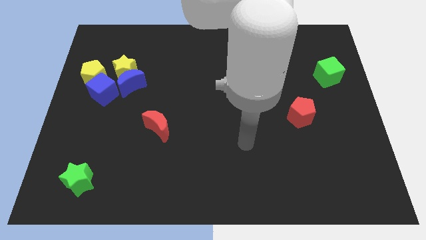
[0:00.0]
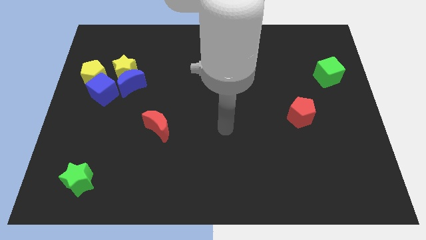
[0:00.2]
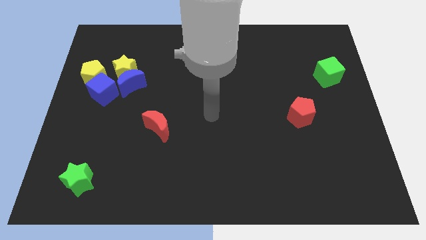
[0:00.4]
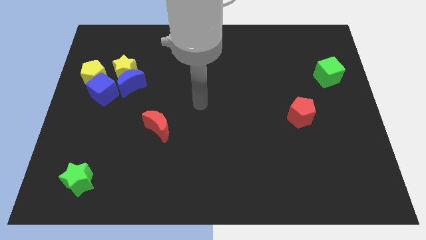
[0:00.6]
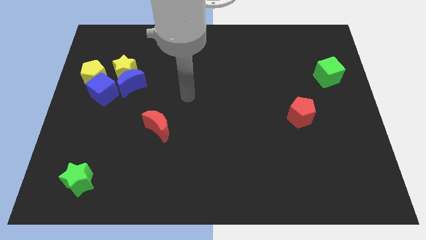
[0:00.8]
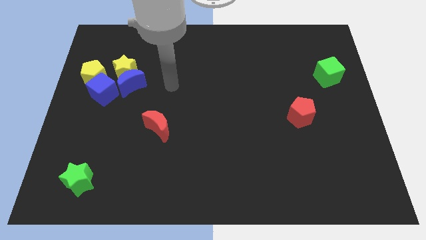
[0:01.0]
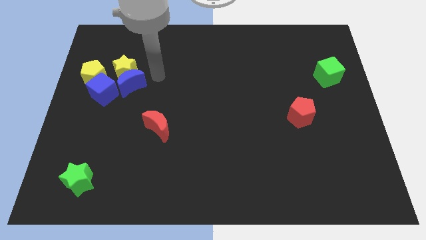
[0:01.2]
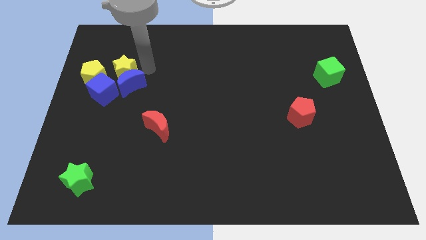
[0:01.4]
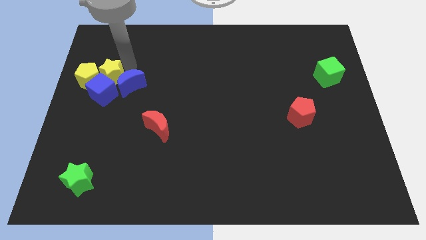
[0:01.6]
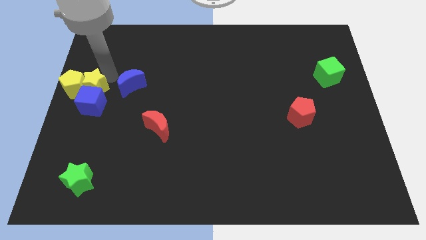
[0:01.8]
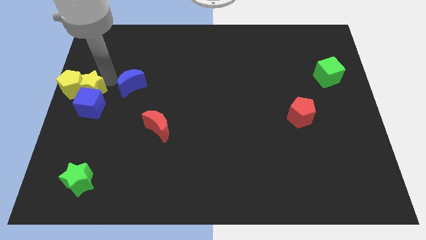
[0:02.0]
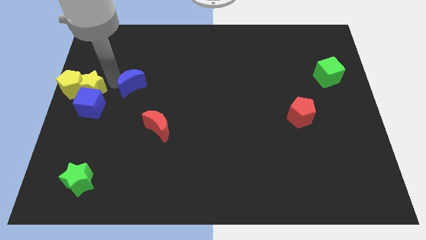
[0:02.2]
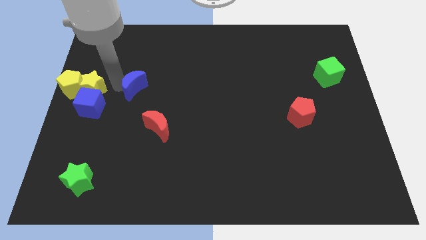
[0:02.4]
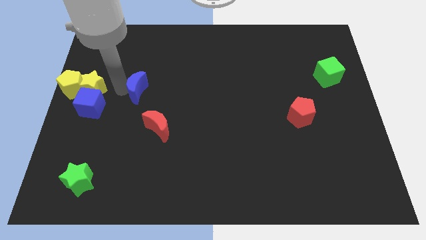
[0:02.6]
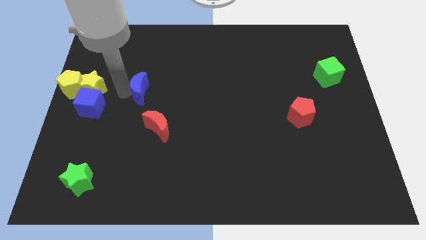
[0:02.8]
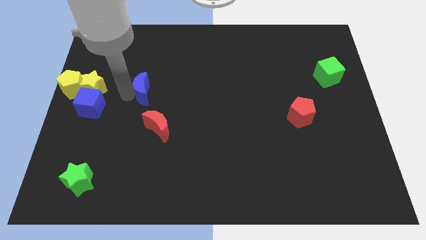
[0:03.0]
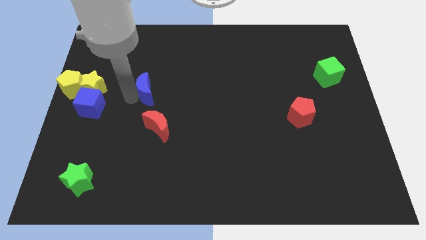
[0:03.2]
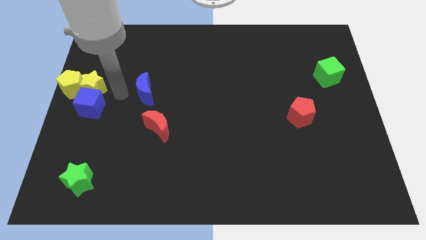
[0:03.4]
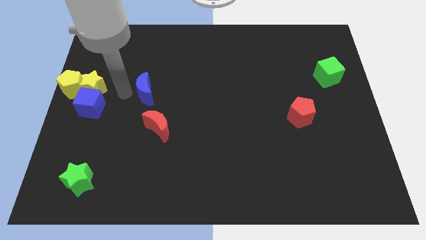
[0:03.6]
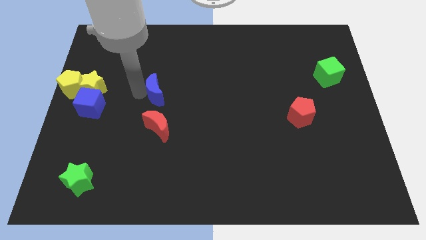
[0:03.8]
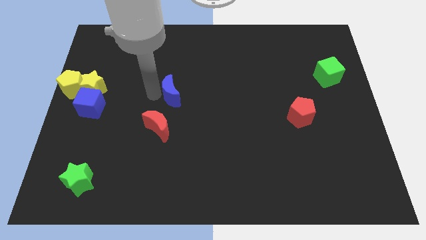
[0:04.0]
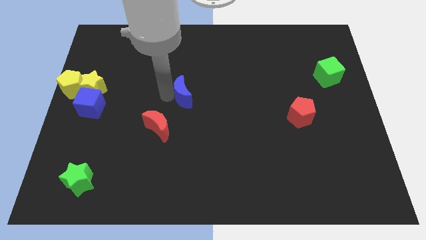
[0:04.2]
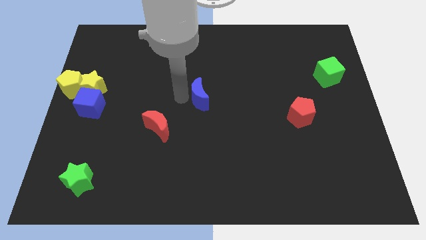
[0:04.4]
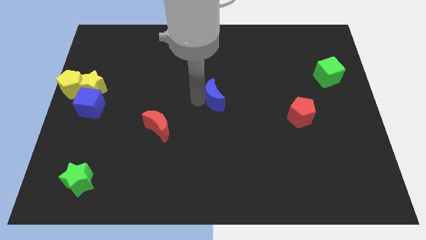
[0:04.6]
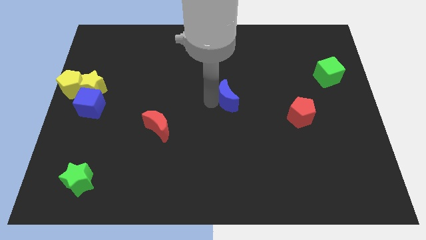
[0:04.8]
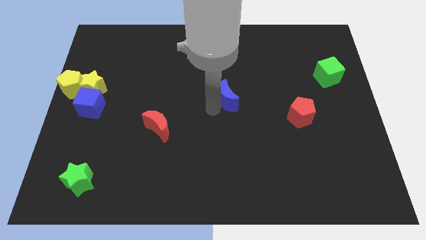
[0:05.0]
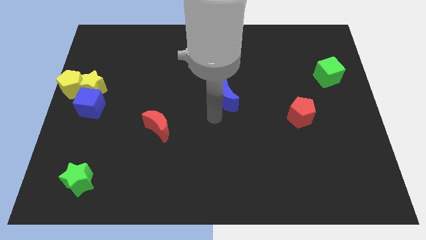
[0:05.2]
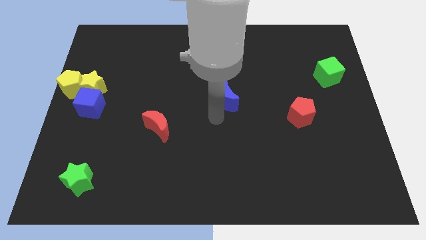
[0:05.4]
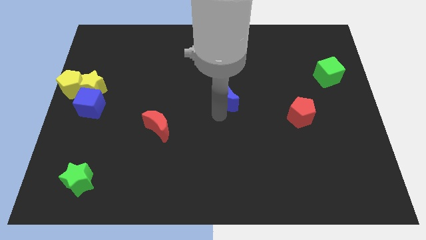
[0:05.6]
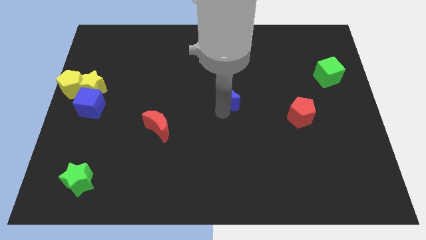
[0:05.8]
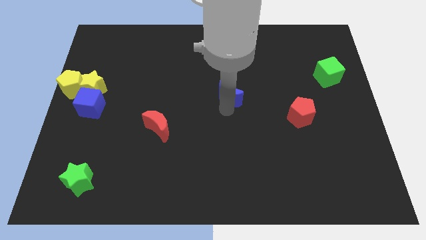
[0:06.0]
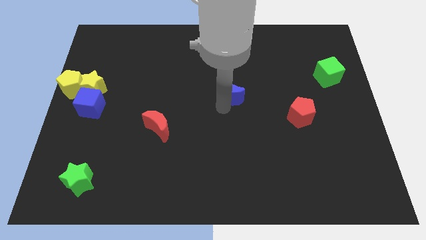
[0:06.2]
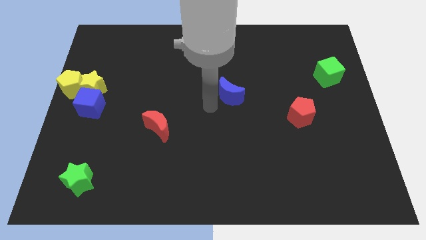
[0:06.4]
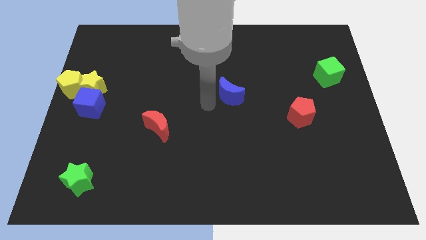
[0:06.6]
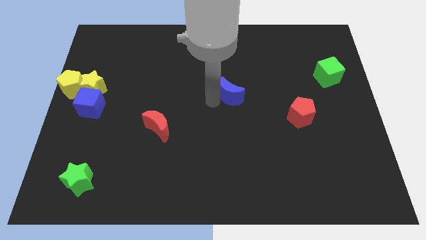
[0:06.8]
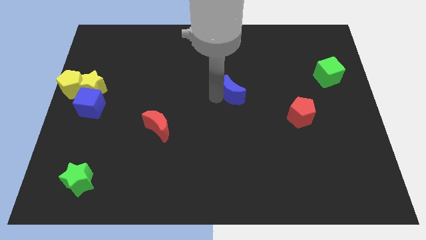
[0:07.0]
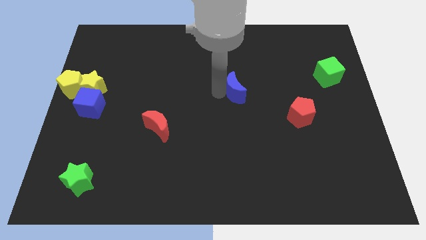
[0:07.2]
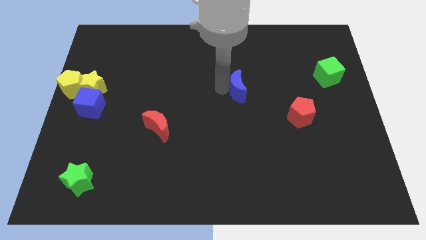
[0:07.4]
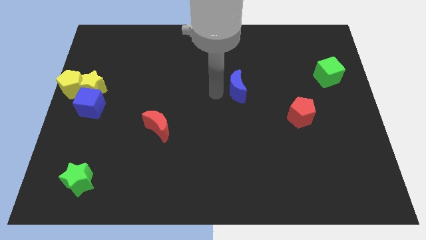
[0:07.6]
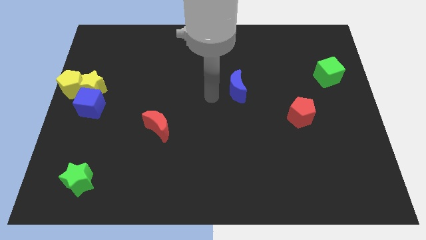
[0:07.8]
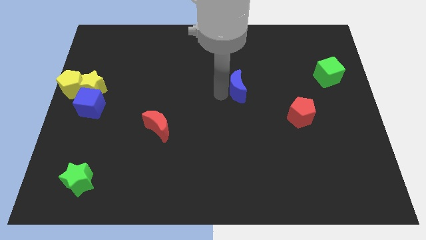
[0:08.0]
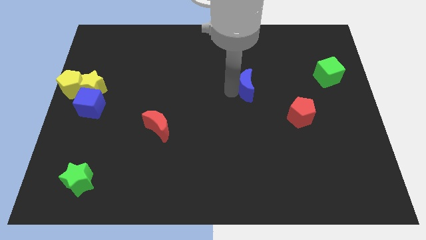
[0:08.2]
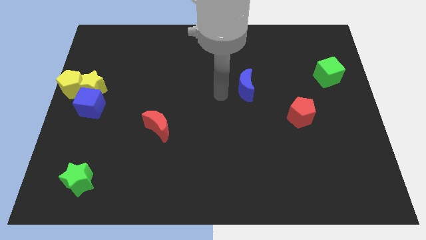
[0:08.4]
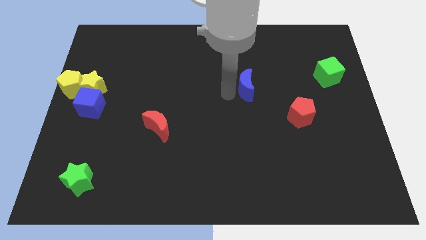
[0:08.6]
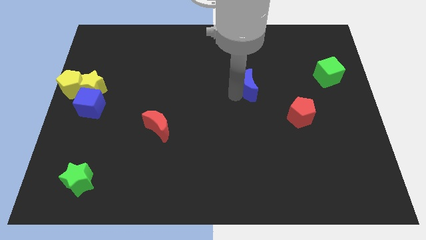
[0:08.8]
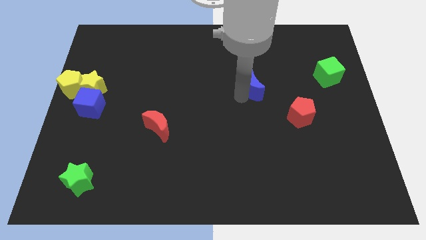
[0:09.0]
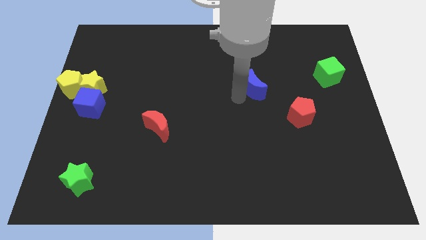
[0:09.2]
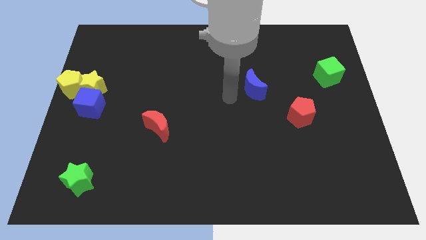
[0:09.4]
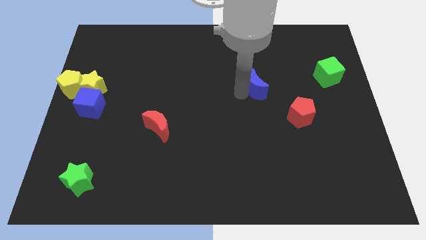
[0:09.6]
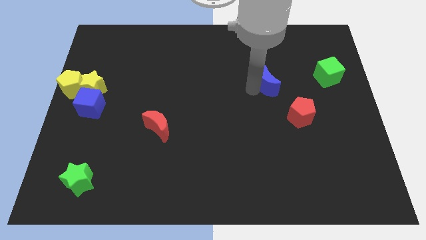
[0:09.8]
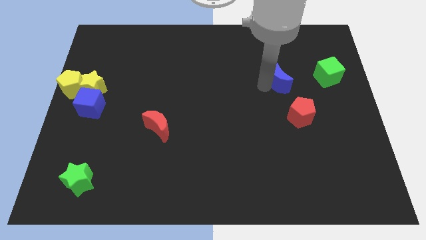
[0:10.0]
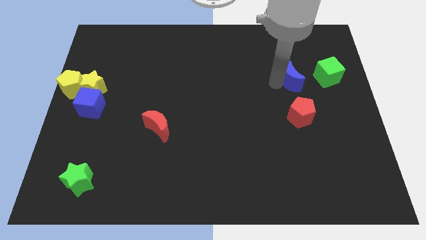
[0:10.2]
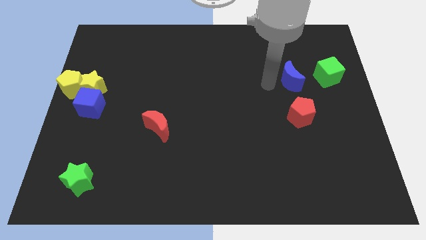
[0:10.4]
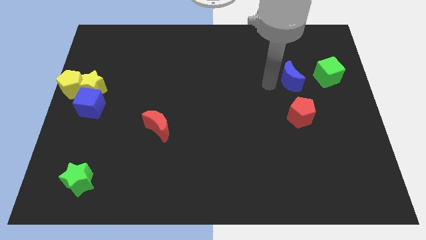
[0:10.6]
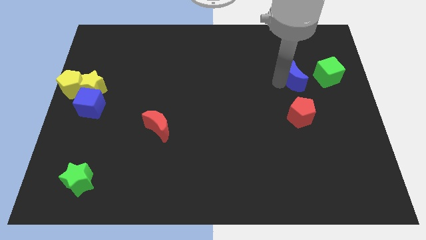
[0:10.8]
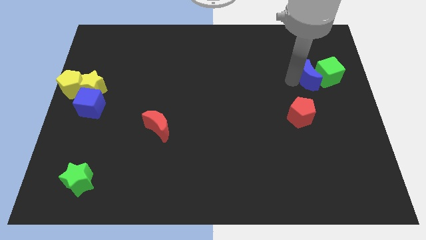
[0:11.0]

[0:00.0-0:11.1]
push the blue moon close to the green cube

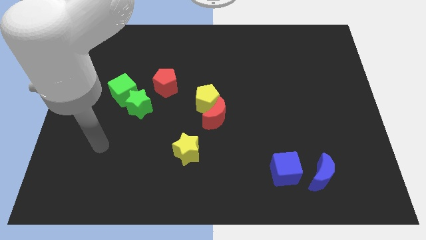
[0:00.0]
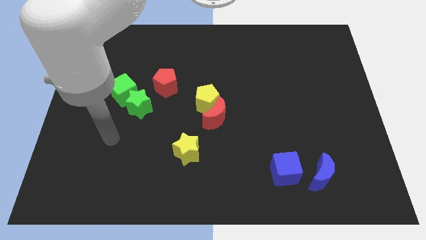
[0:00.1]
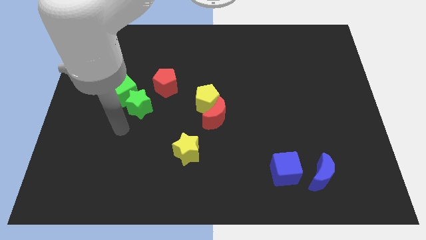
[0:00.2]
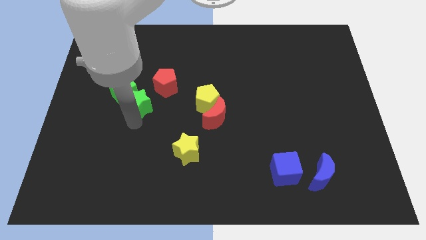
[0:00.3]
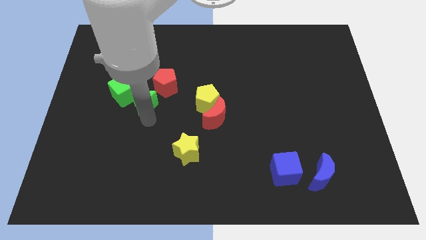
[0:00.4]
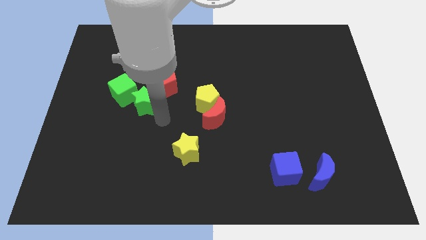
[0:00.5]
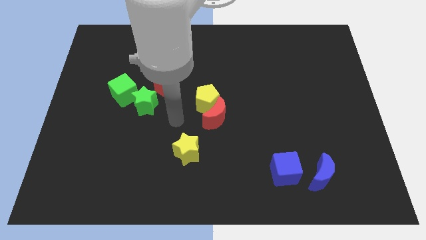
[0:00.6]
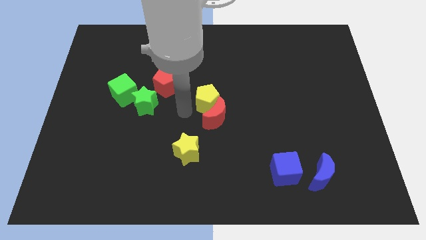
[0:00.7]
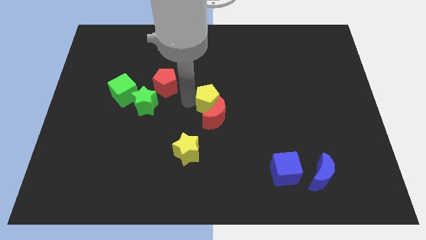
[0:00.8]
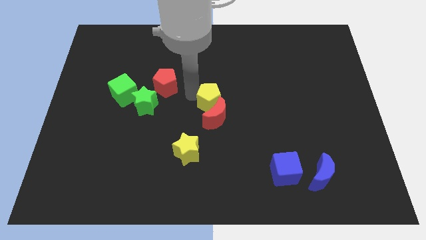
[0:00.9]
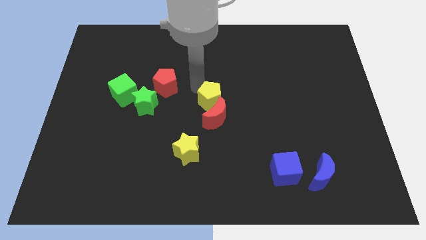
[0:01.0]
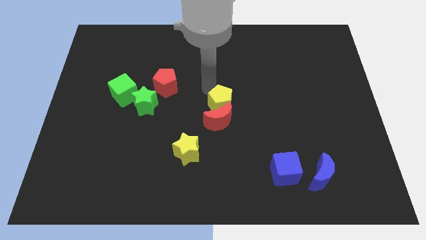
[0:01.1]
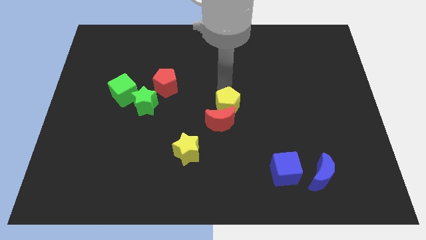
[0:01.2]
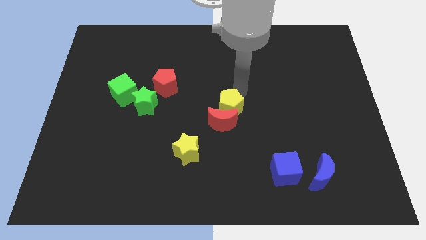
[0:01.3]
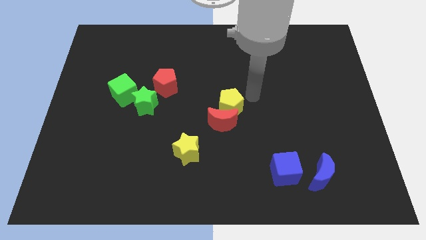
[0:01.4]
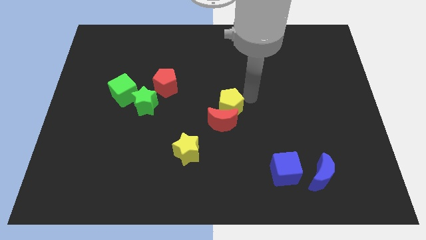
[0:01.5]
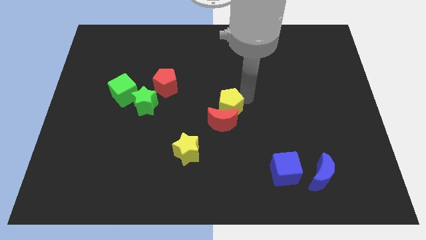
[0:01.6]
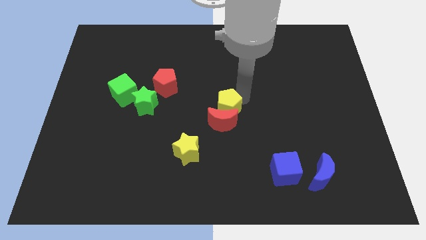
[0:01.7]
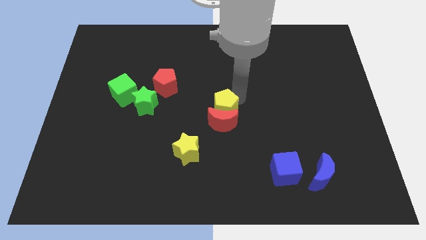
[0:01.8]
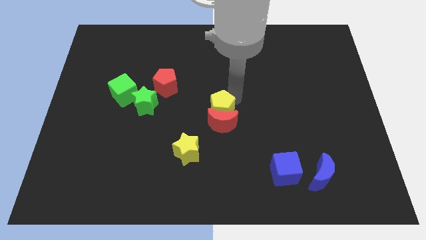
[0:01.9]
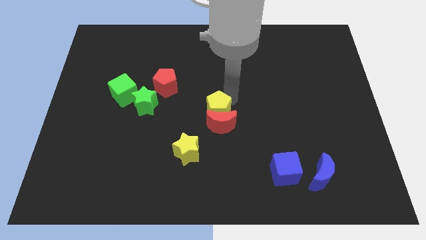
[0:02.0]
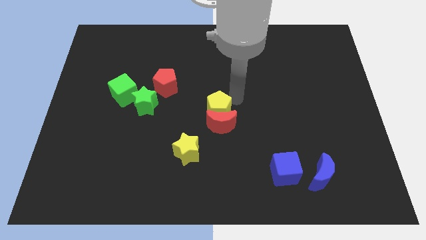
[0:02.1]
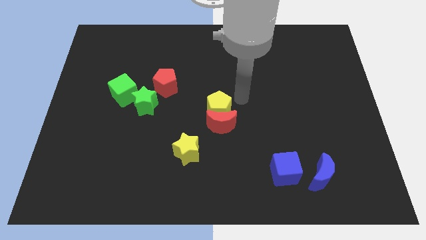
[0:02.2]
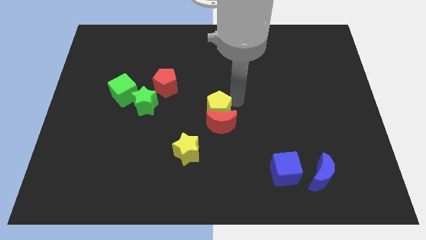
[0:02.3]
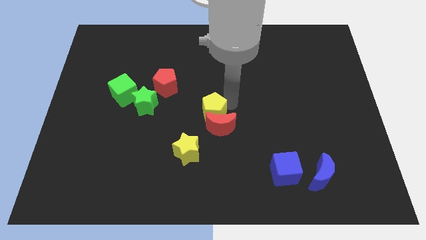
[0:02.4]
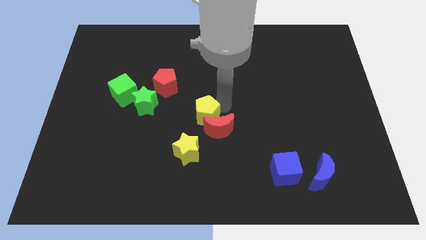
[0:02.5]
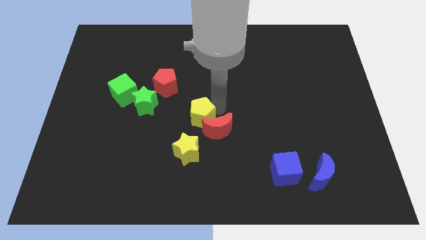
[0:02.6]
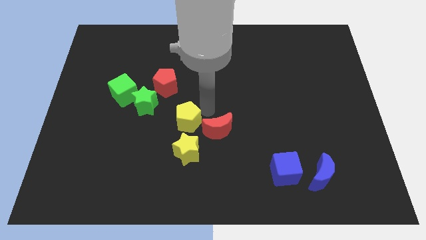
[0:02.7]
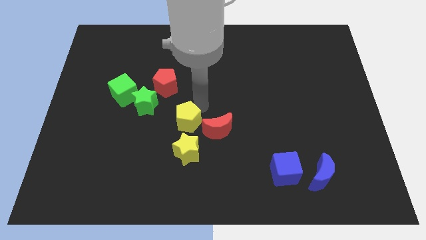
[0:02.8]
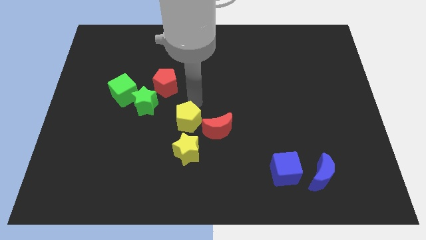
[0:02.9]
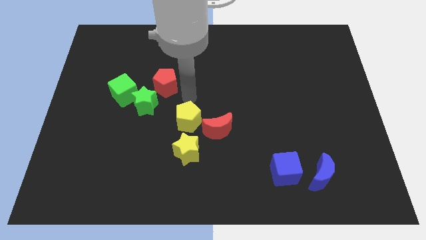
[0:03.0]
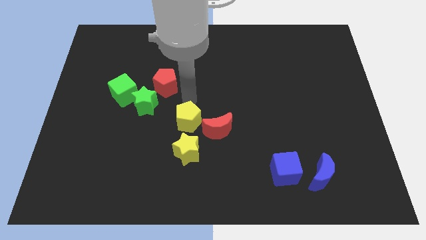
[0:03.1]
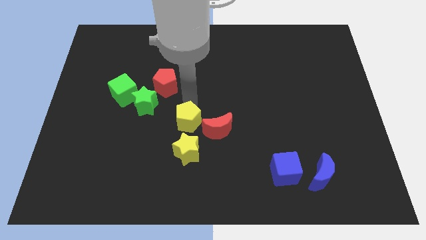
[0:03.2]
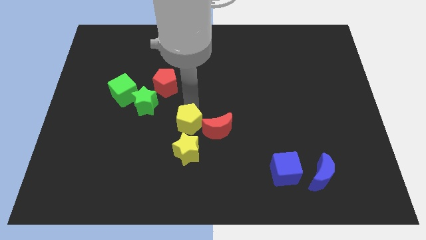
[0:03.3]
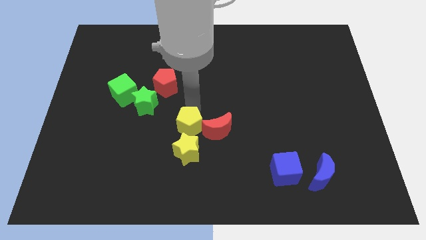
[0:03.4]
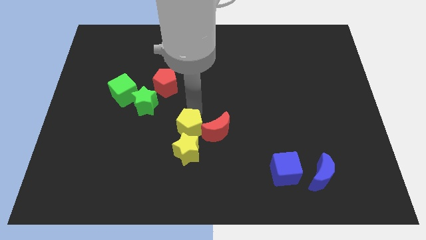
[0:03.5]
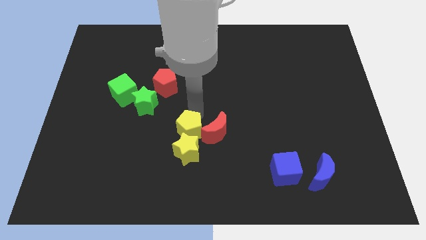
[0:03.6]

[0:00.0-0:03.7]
put the yellow pentagon close to the yellow star
